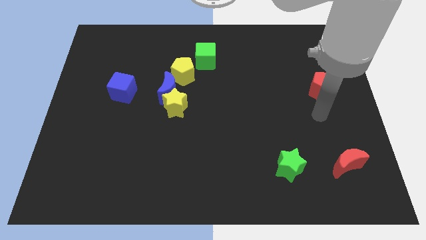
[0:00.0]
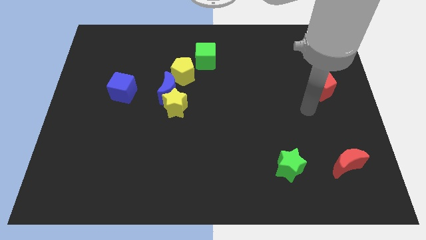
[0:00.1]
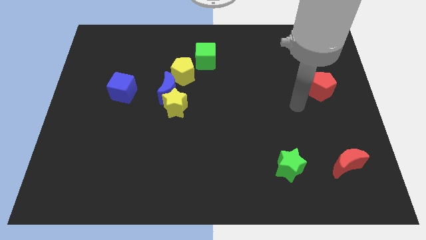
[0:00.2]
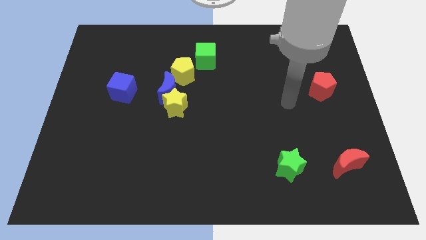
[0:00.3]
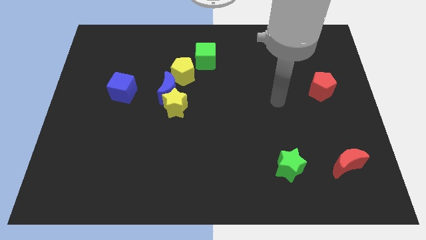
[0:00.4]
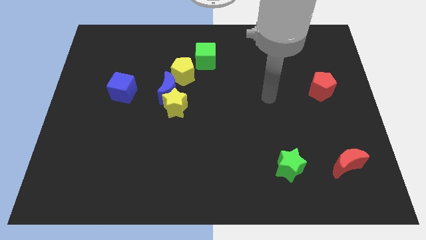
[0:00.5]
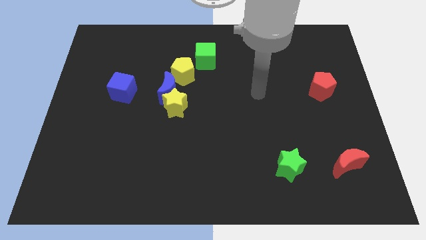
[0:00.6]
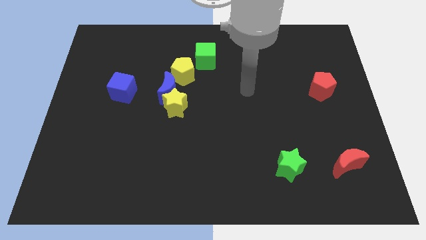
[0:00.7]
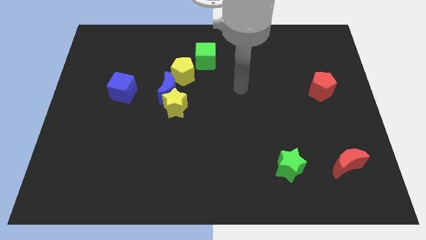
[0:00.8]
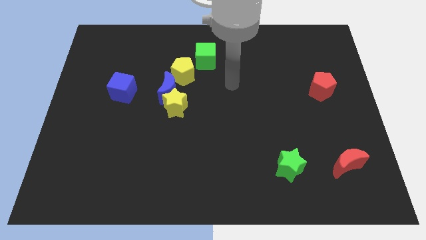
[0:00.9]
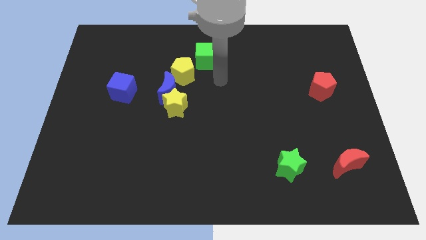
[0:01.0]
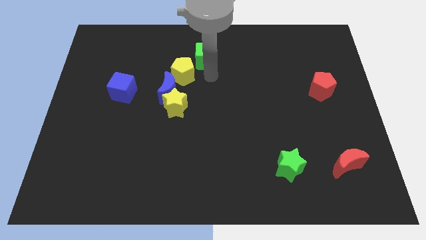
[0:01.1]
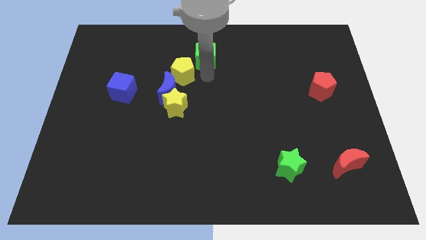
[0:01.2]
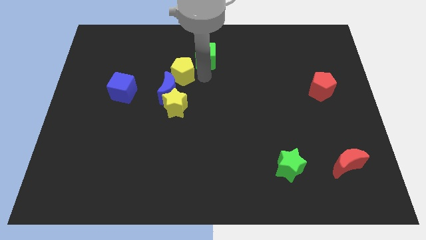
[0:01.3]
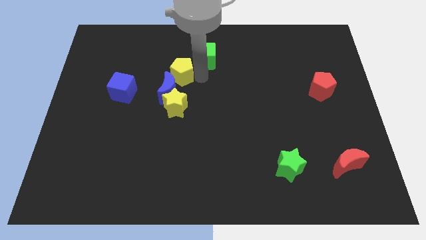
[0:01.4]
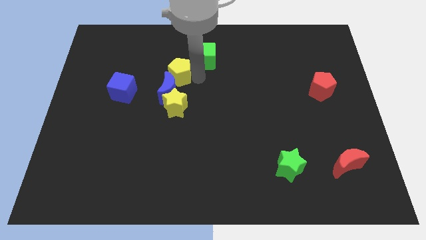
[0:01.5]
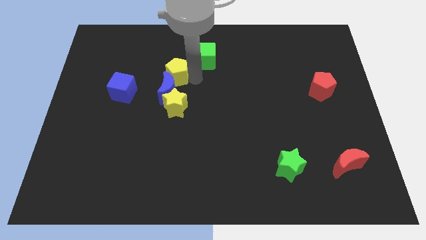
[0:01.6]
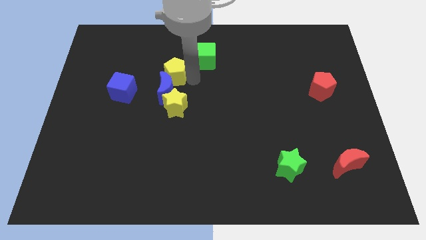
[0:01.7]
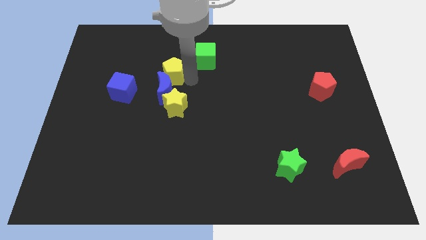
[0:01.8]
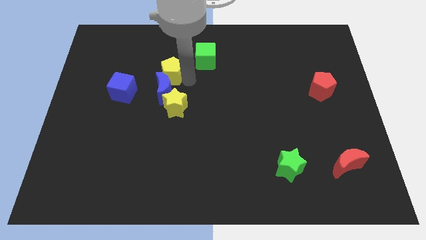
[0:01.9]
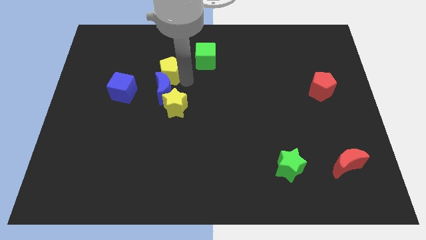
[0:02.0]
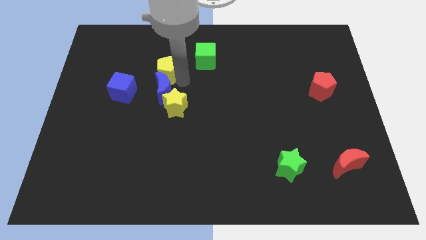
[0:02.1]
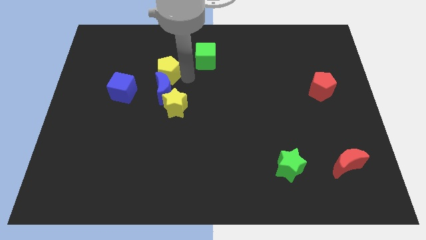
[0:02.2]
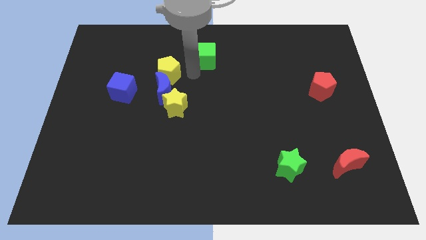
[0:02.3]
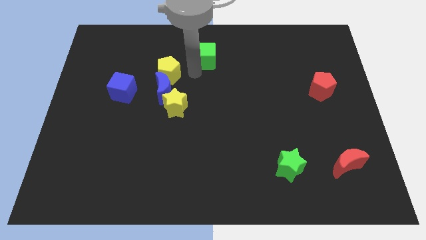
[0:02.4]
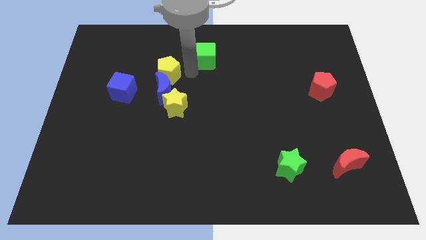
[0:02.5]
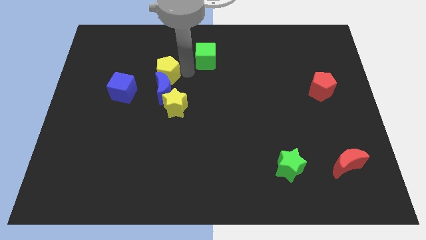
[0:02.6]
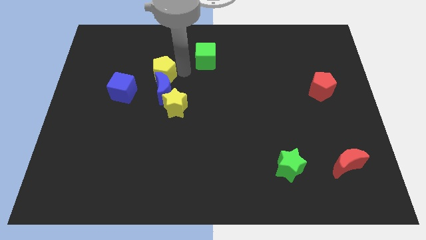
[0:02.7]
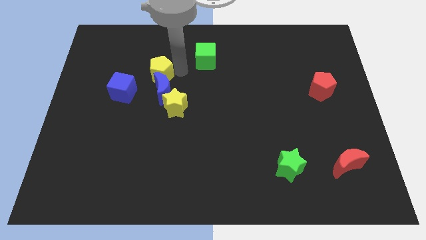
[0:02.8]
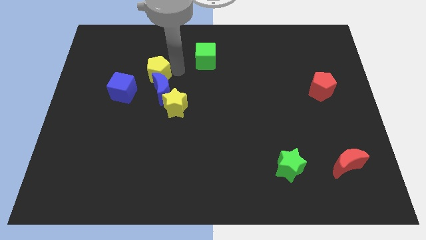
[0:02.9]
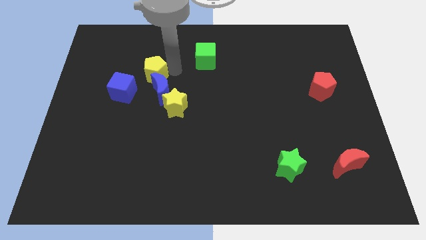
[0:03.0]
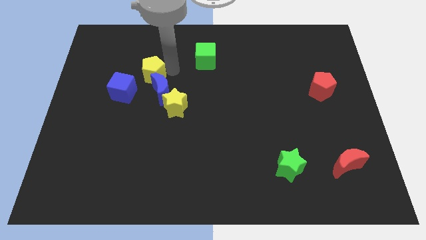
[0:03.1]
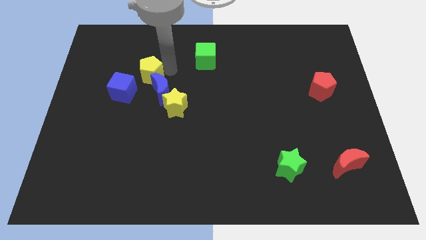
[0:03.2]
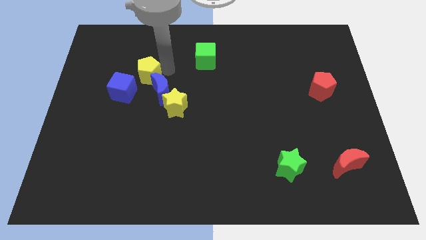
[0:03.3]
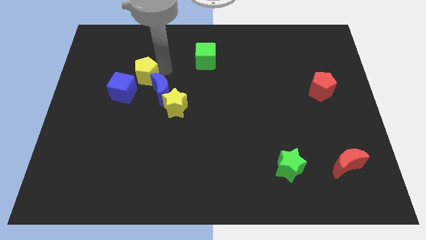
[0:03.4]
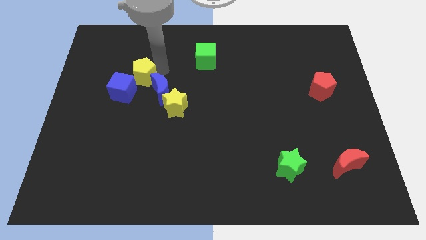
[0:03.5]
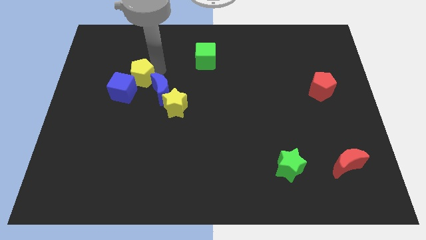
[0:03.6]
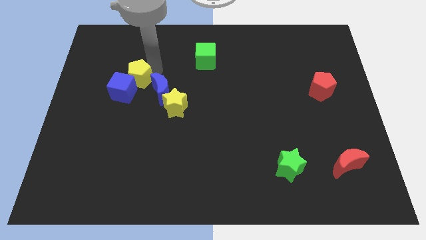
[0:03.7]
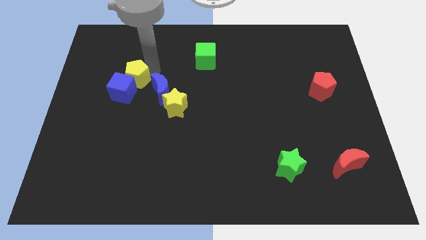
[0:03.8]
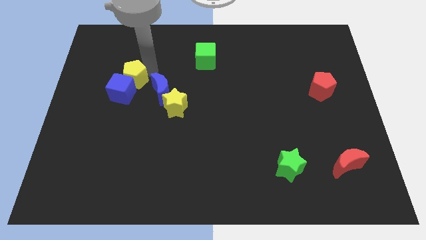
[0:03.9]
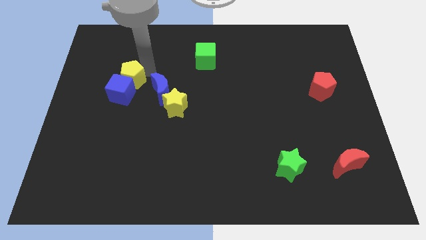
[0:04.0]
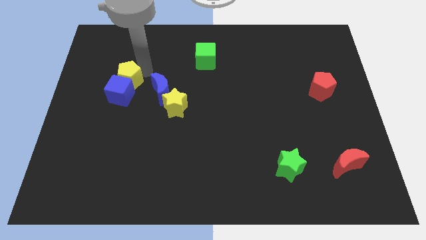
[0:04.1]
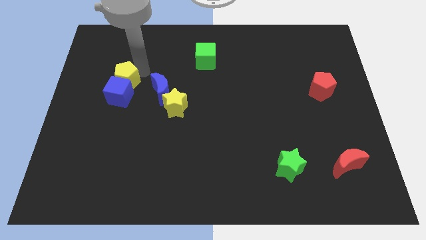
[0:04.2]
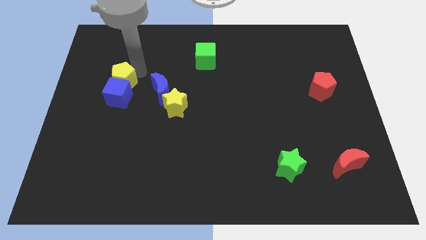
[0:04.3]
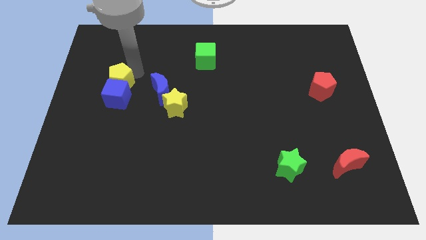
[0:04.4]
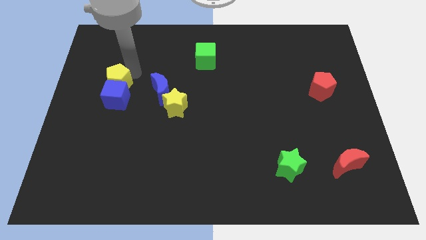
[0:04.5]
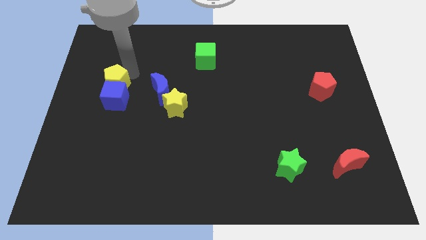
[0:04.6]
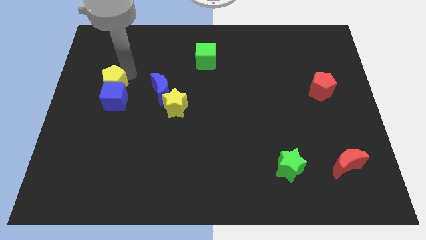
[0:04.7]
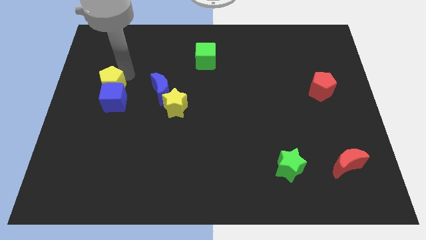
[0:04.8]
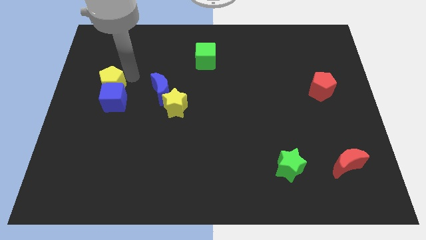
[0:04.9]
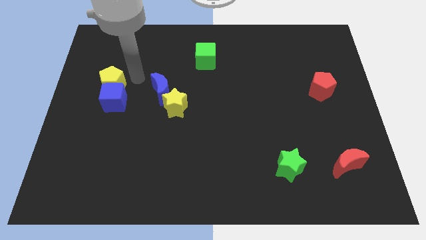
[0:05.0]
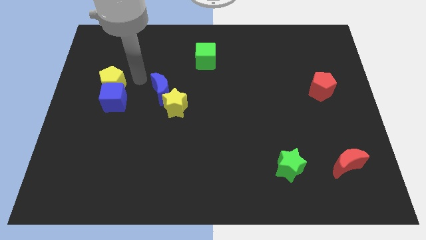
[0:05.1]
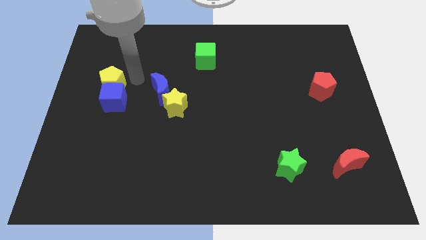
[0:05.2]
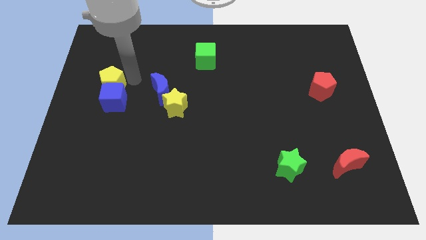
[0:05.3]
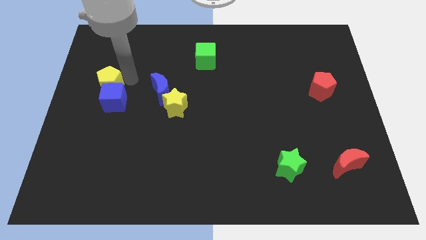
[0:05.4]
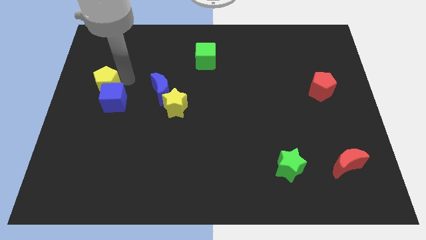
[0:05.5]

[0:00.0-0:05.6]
put the yellow pentagon to the center left

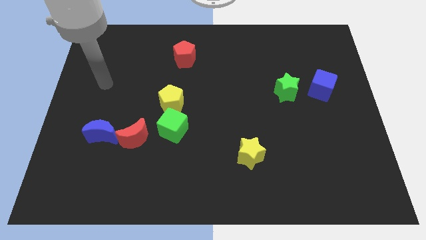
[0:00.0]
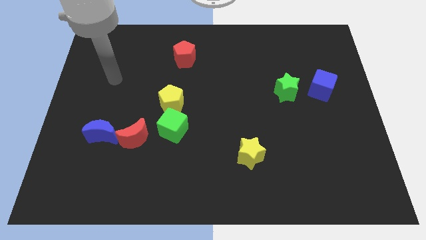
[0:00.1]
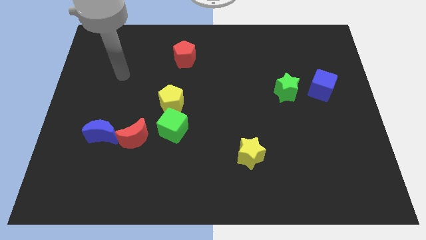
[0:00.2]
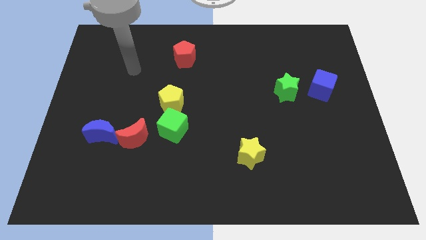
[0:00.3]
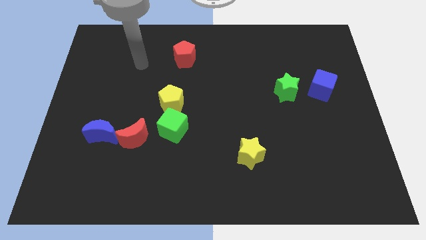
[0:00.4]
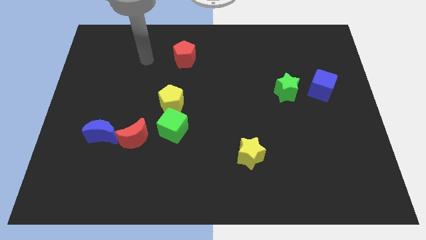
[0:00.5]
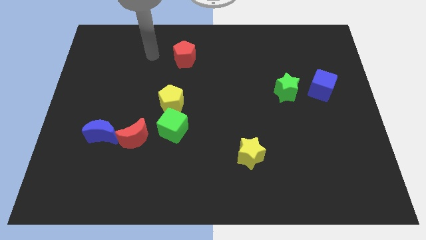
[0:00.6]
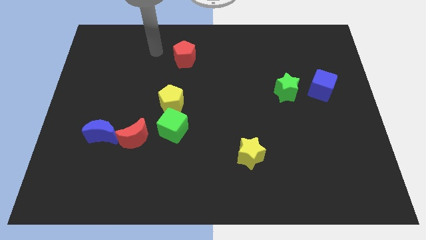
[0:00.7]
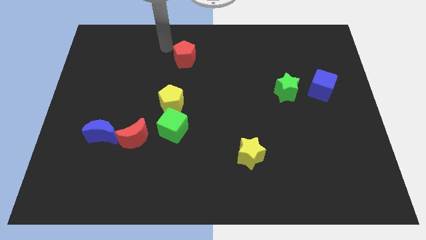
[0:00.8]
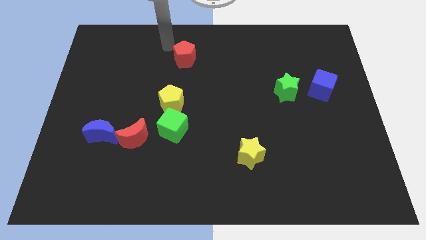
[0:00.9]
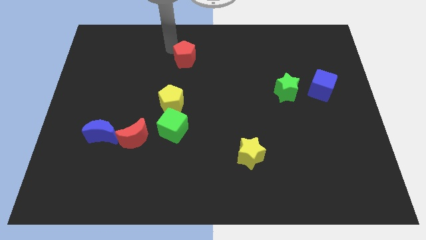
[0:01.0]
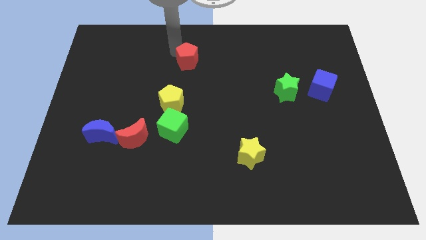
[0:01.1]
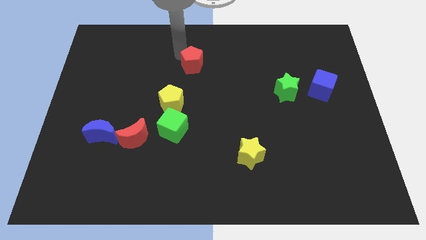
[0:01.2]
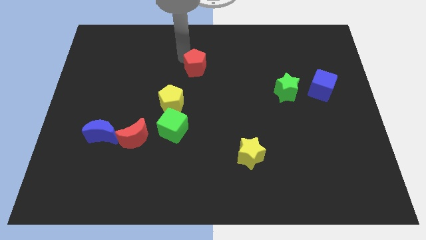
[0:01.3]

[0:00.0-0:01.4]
move the red pentagon to the center

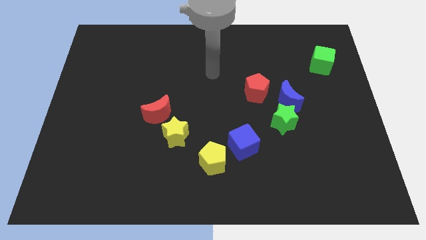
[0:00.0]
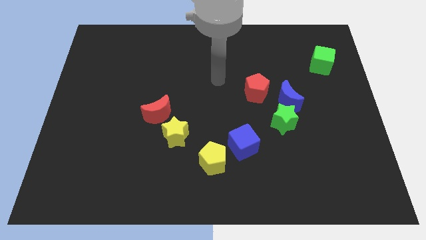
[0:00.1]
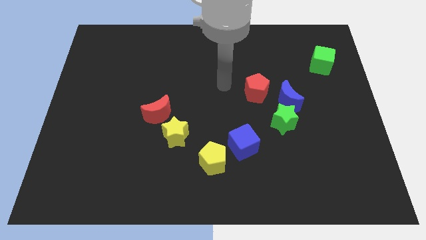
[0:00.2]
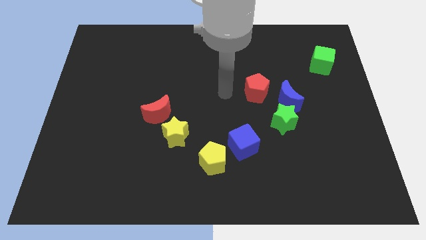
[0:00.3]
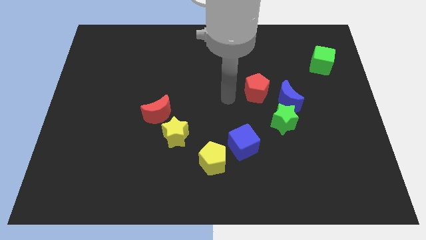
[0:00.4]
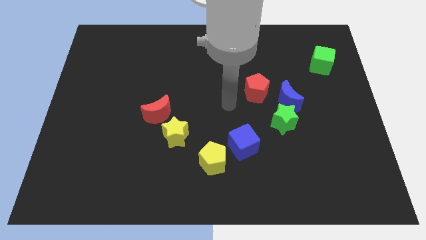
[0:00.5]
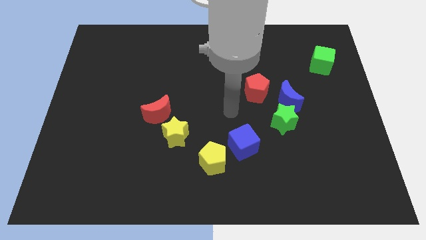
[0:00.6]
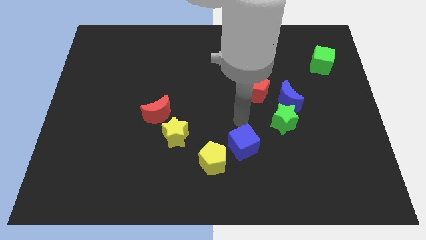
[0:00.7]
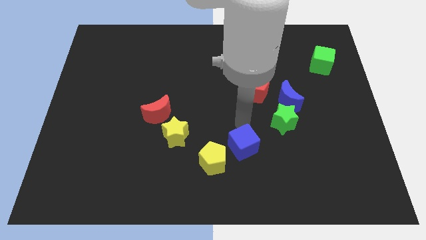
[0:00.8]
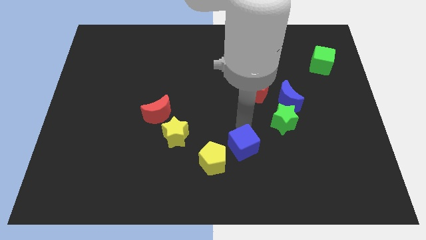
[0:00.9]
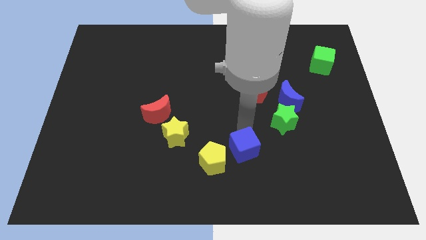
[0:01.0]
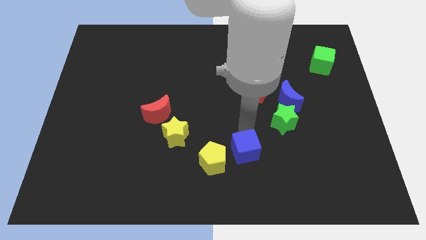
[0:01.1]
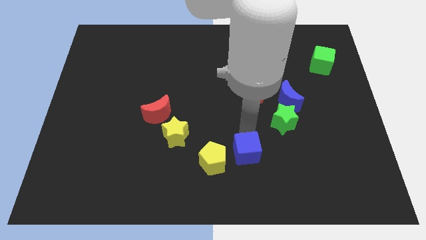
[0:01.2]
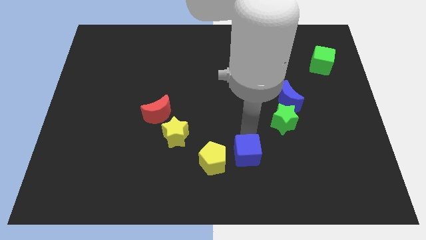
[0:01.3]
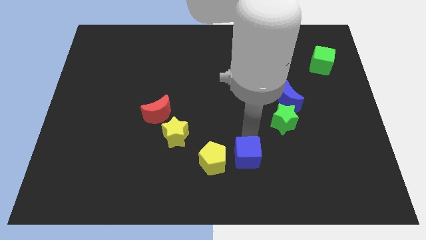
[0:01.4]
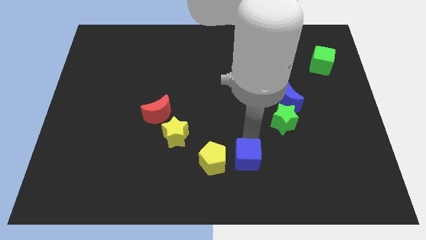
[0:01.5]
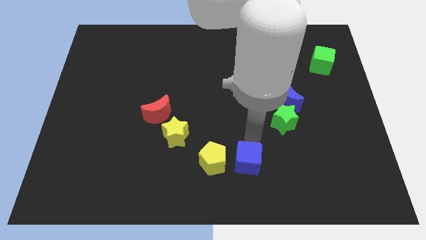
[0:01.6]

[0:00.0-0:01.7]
put the blue cube to the bottom
